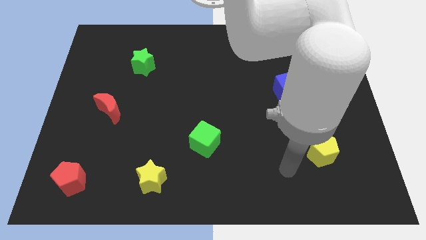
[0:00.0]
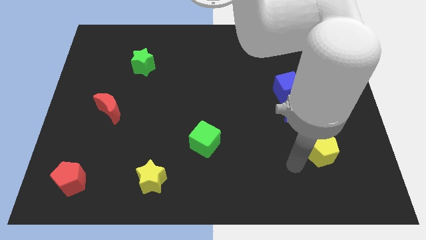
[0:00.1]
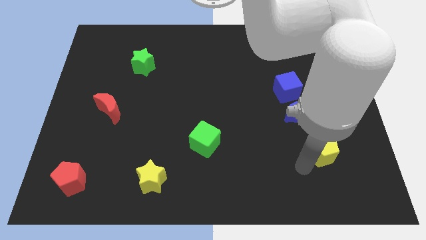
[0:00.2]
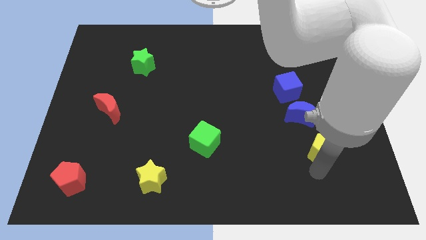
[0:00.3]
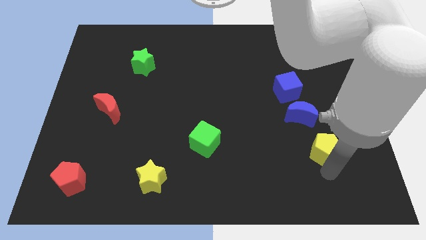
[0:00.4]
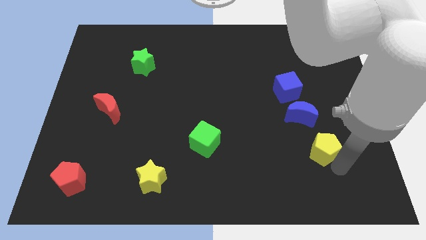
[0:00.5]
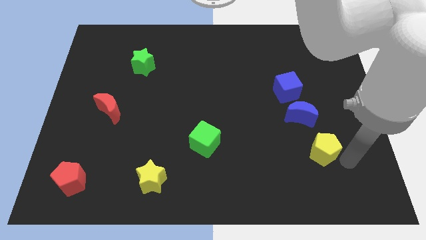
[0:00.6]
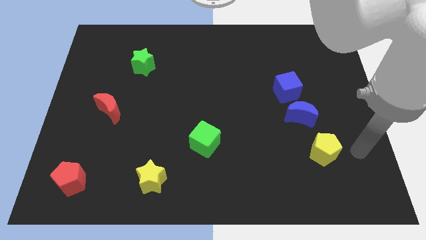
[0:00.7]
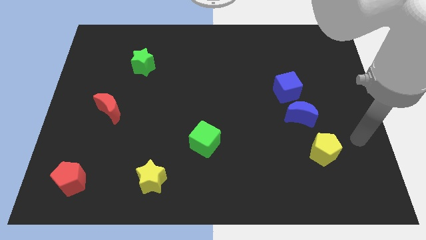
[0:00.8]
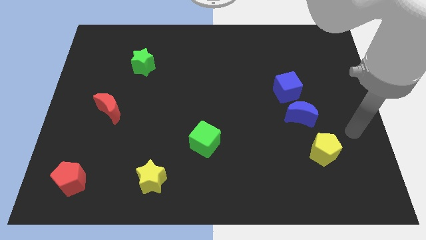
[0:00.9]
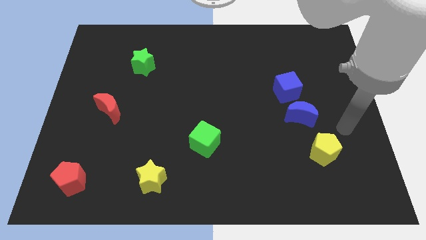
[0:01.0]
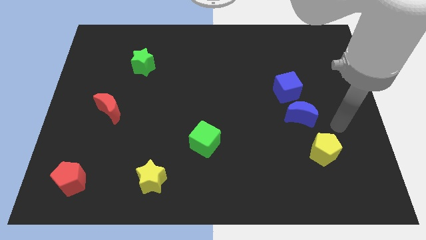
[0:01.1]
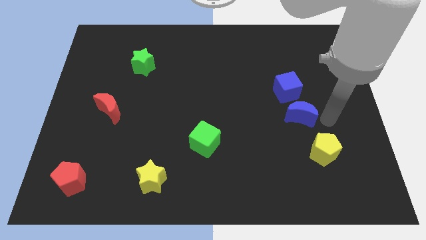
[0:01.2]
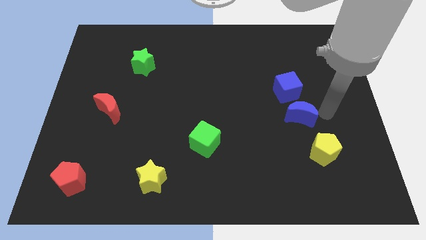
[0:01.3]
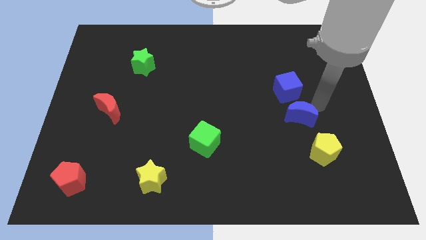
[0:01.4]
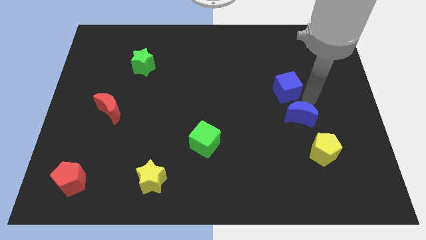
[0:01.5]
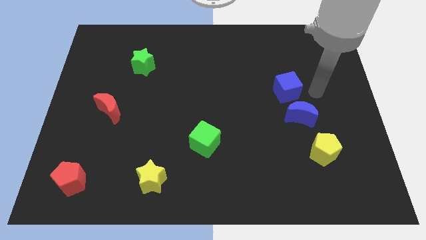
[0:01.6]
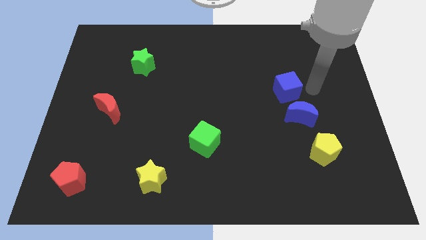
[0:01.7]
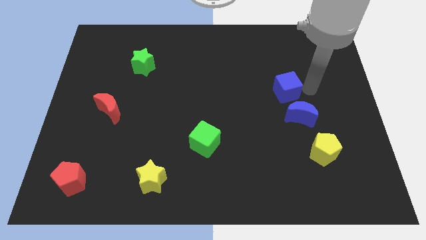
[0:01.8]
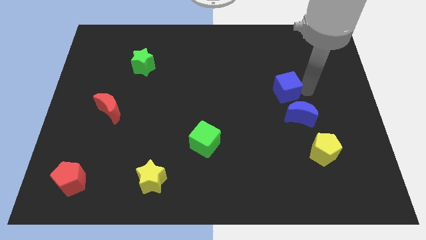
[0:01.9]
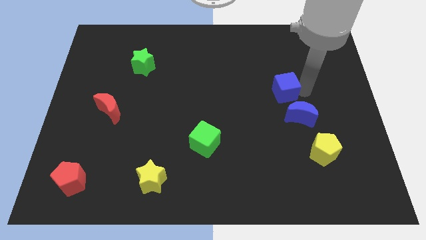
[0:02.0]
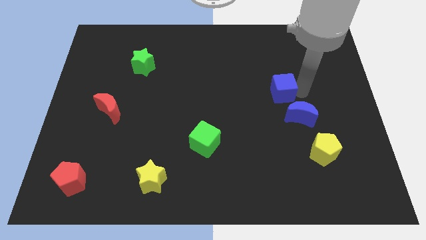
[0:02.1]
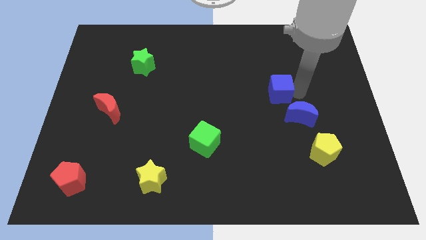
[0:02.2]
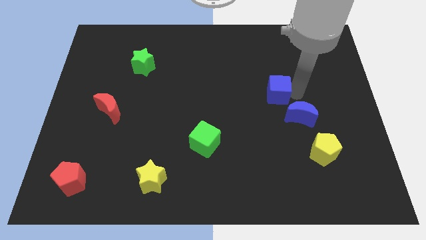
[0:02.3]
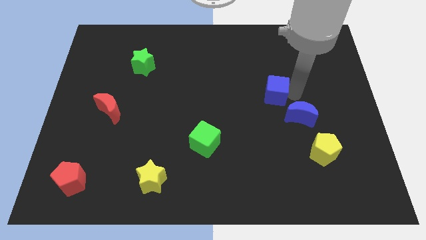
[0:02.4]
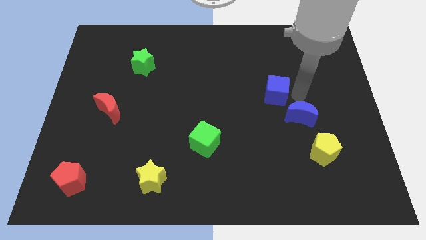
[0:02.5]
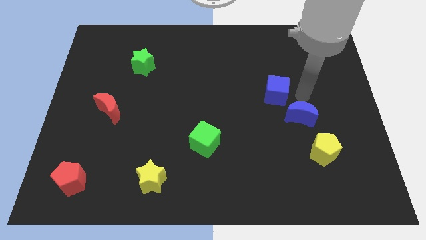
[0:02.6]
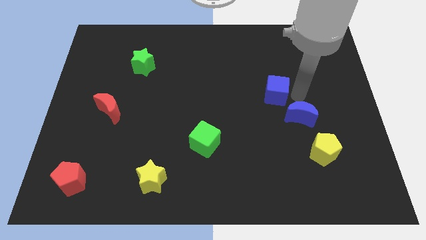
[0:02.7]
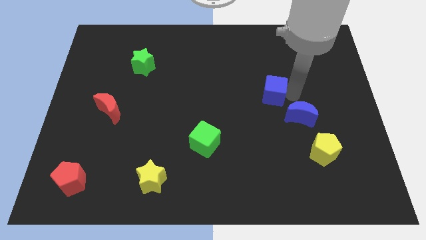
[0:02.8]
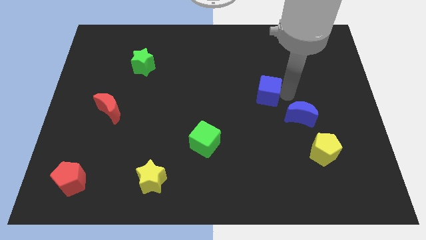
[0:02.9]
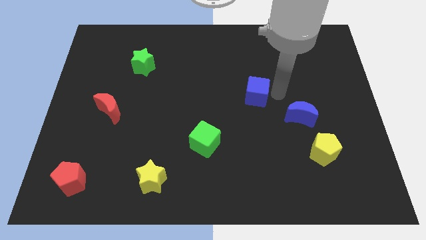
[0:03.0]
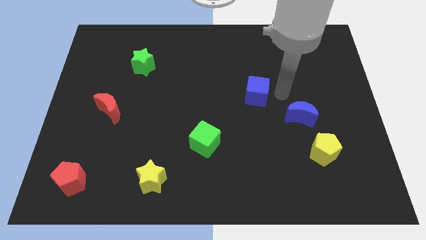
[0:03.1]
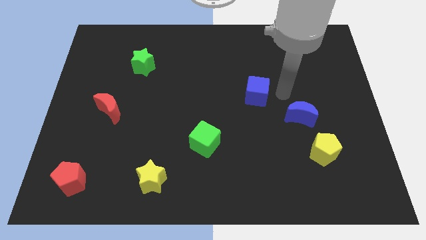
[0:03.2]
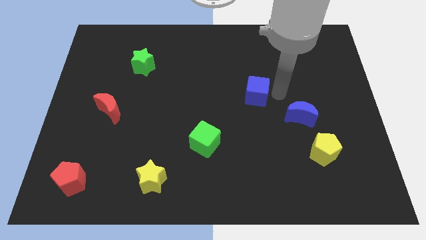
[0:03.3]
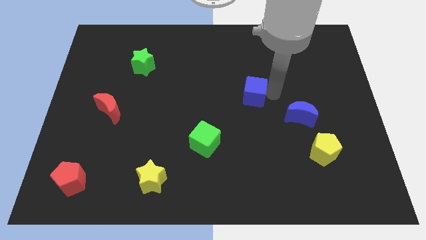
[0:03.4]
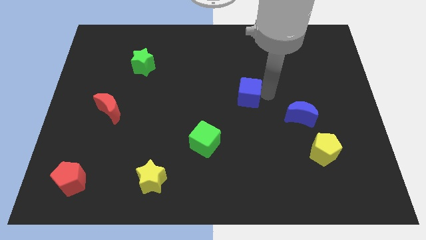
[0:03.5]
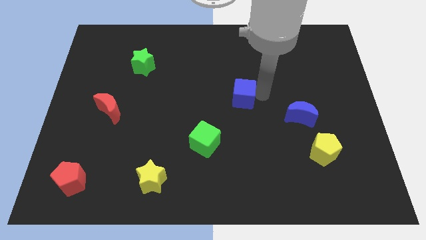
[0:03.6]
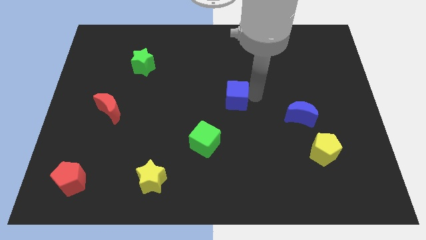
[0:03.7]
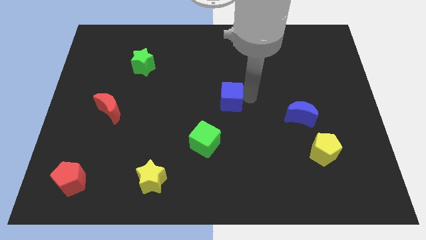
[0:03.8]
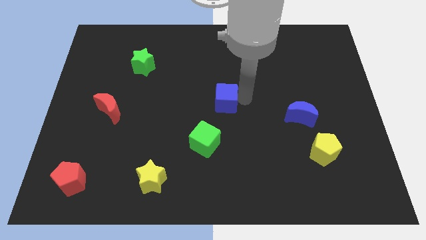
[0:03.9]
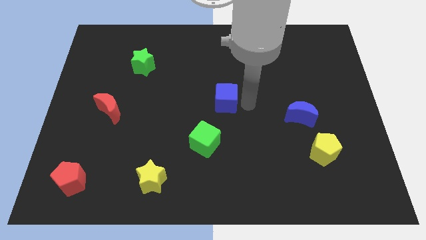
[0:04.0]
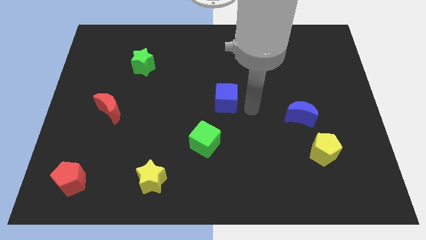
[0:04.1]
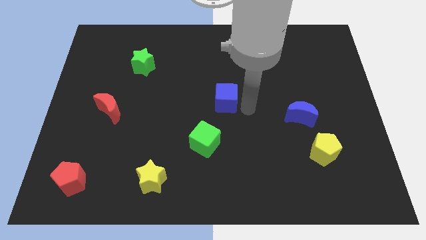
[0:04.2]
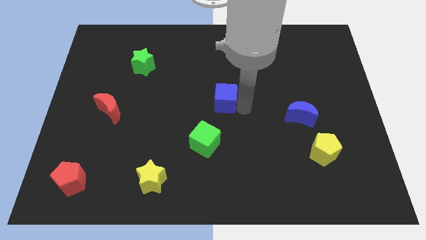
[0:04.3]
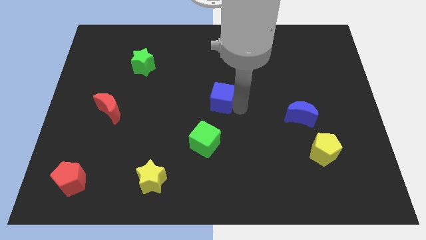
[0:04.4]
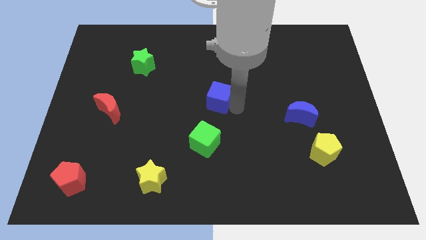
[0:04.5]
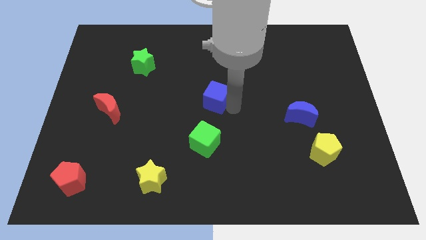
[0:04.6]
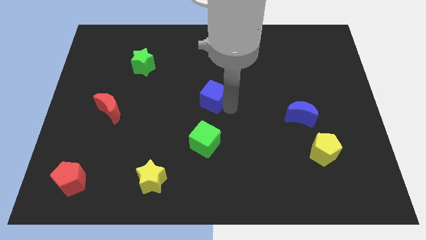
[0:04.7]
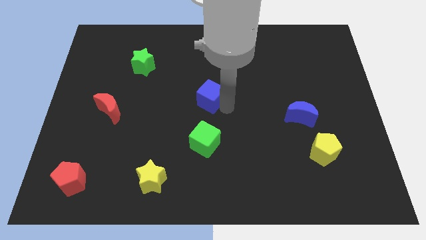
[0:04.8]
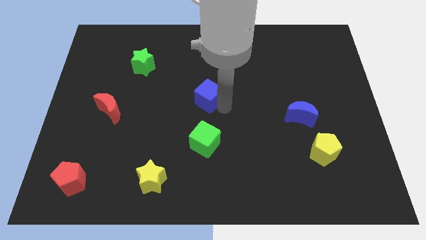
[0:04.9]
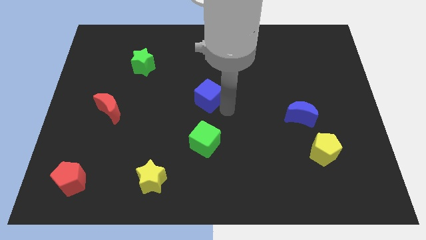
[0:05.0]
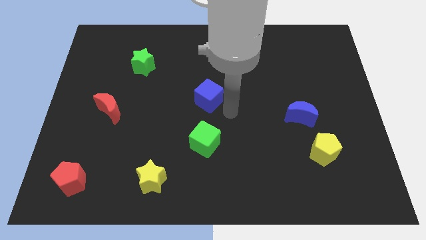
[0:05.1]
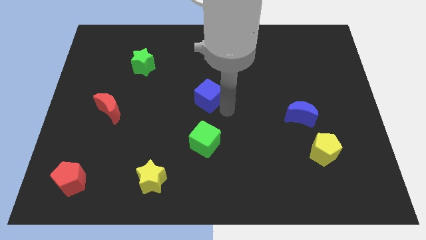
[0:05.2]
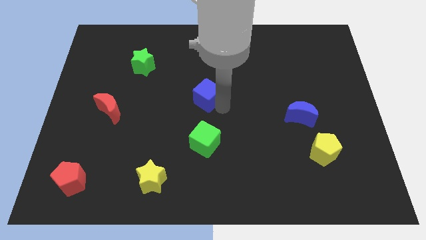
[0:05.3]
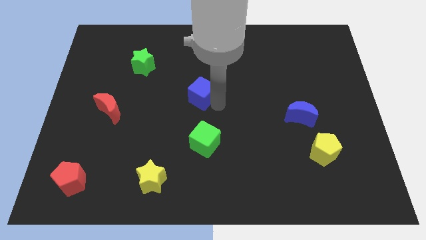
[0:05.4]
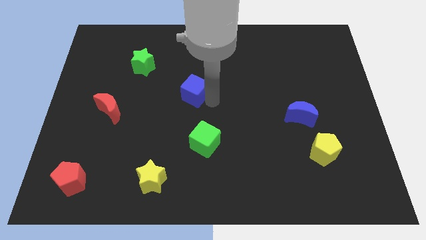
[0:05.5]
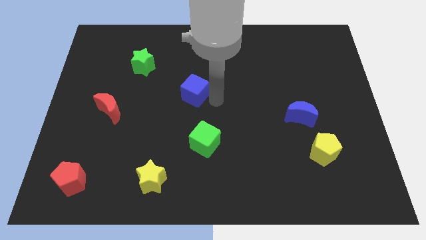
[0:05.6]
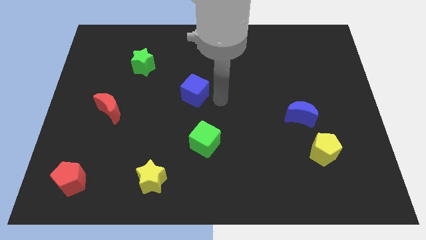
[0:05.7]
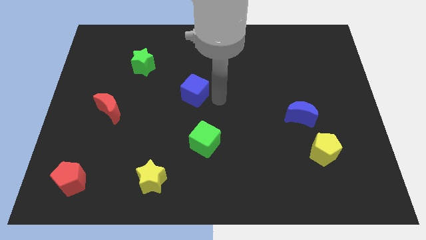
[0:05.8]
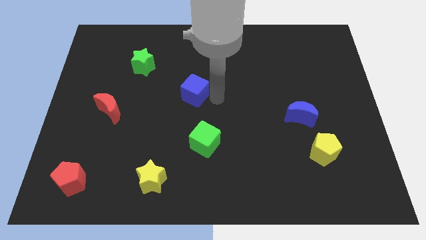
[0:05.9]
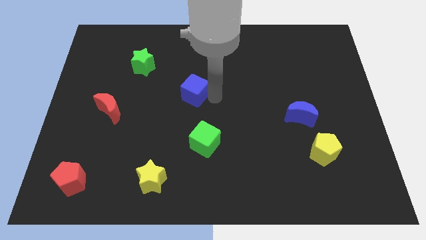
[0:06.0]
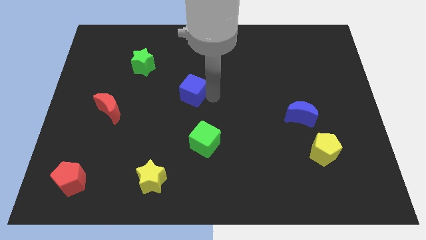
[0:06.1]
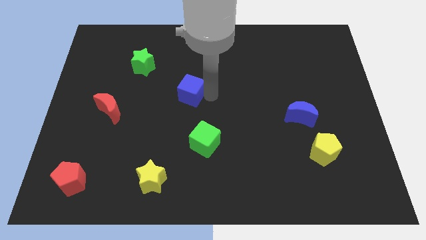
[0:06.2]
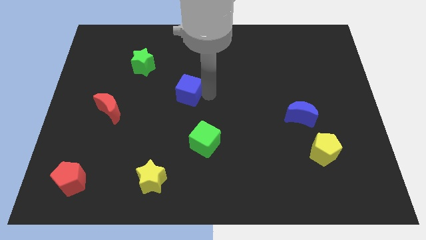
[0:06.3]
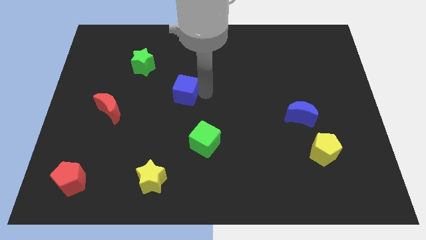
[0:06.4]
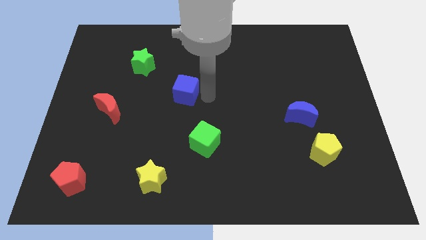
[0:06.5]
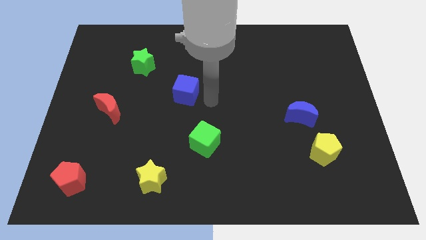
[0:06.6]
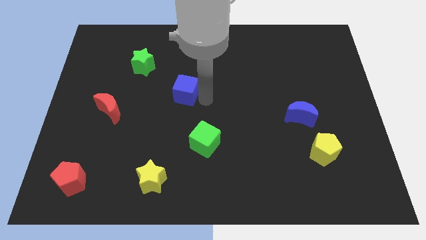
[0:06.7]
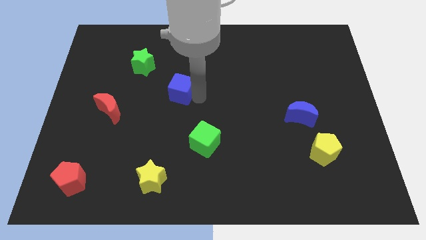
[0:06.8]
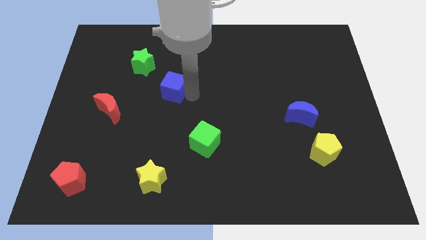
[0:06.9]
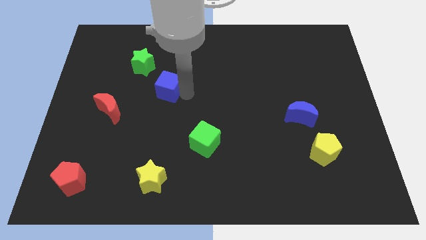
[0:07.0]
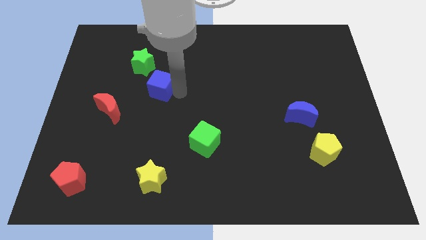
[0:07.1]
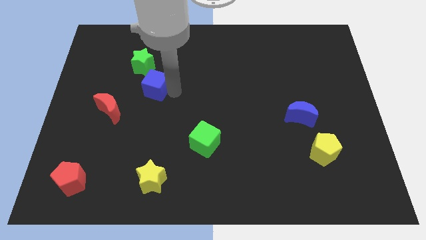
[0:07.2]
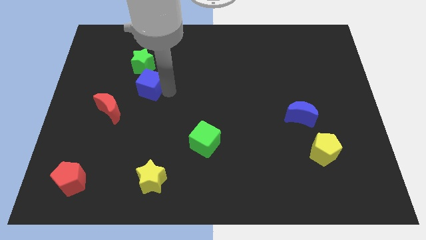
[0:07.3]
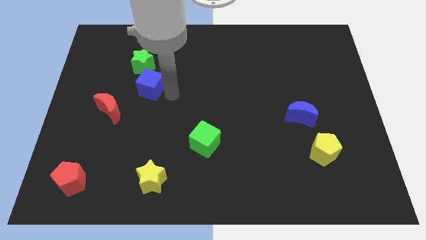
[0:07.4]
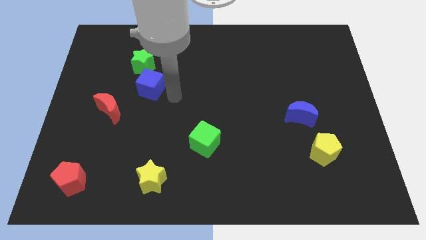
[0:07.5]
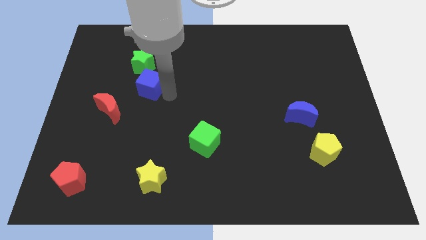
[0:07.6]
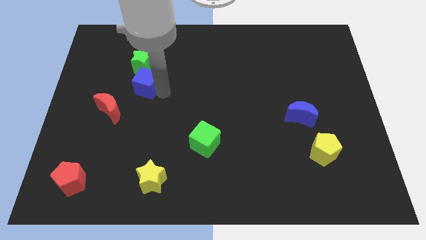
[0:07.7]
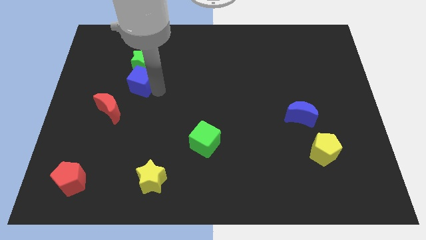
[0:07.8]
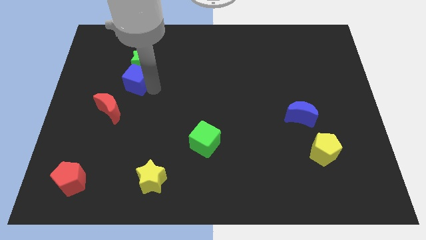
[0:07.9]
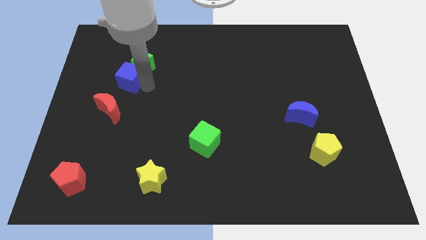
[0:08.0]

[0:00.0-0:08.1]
move the blue cube to the top side of the red moon
